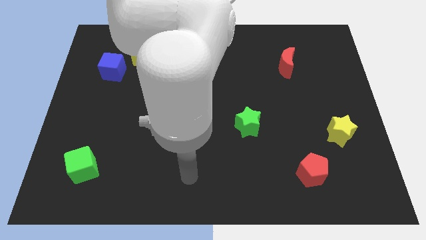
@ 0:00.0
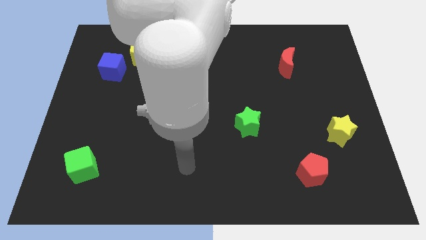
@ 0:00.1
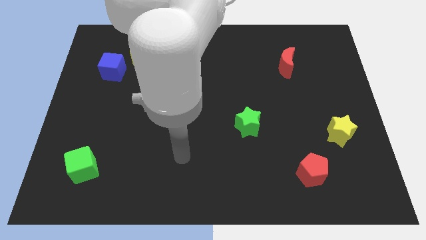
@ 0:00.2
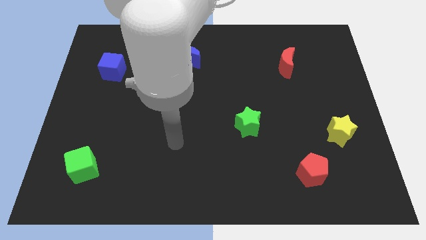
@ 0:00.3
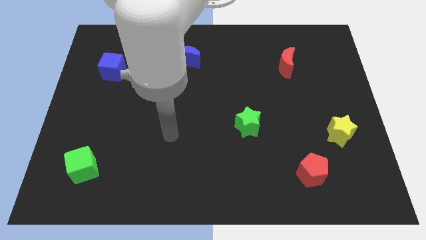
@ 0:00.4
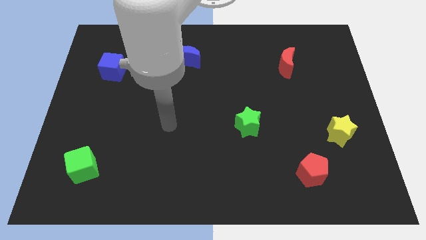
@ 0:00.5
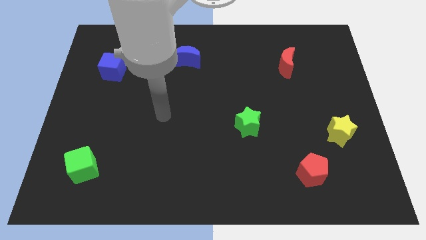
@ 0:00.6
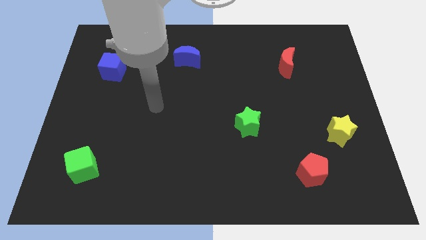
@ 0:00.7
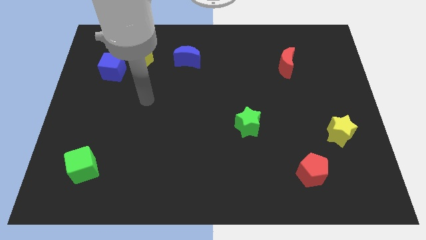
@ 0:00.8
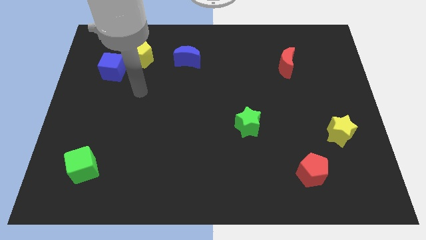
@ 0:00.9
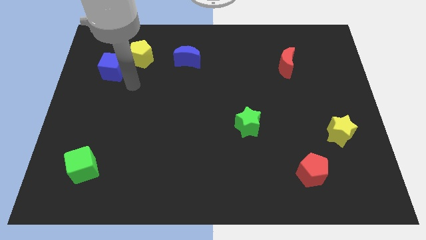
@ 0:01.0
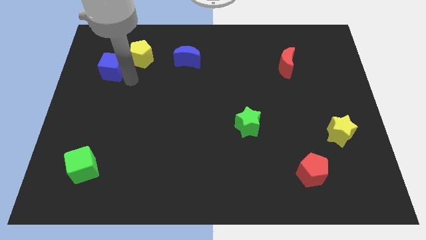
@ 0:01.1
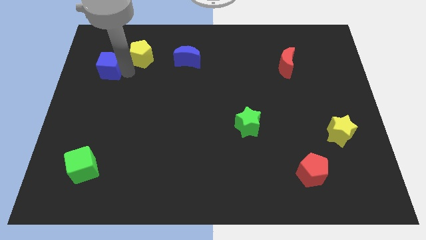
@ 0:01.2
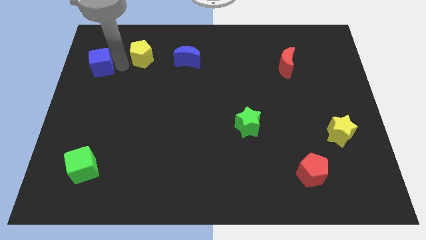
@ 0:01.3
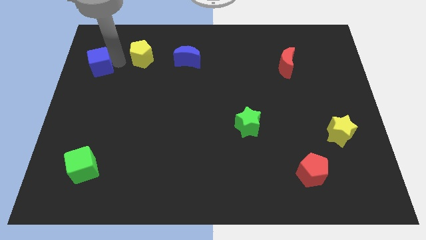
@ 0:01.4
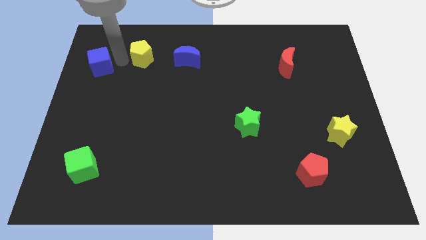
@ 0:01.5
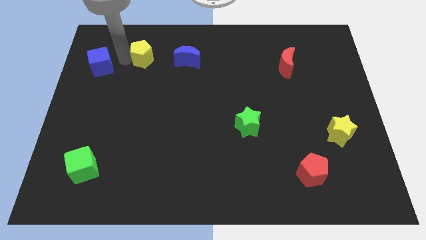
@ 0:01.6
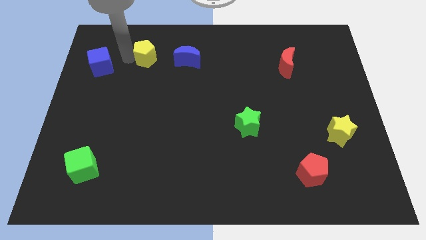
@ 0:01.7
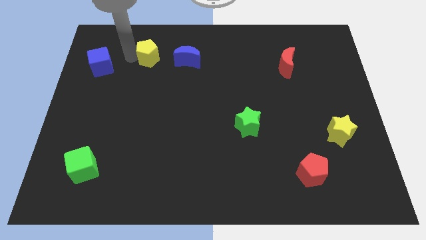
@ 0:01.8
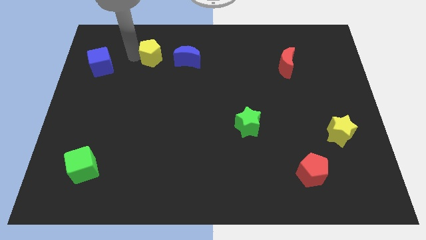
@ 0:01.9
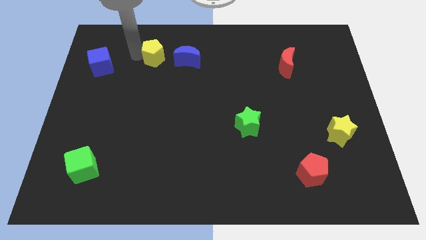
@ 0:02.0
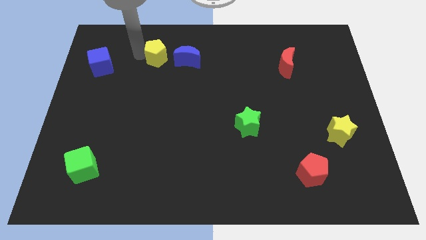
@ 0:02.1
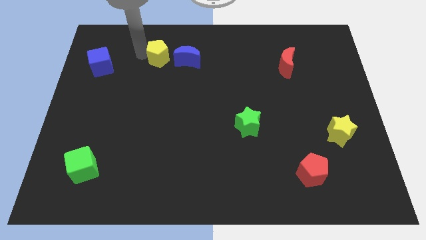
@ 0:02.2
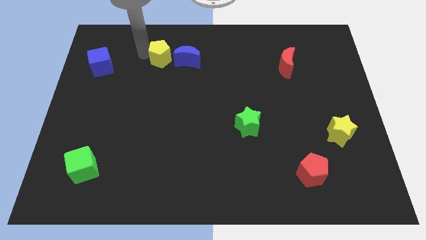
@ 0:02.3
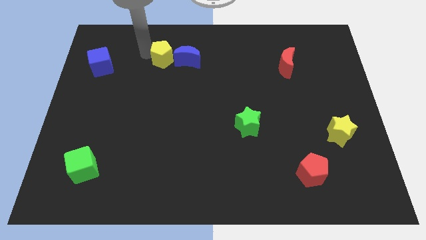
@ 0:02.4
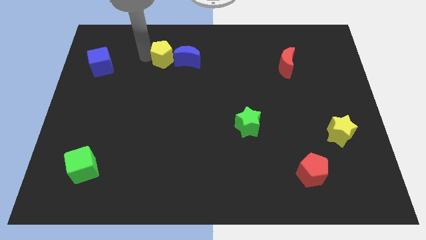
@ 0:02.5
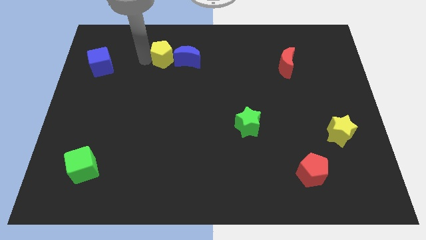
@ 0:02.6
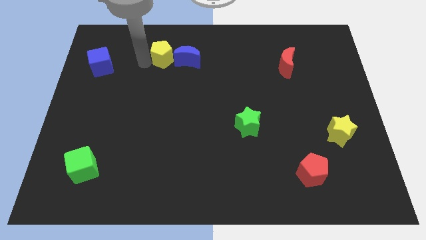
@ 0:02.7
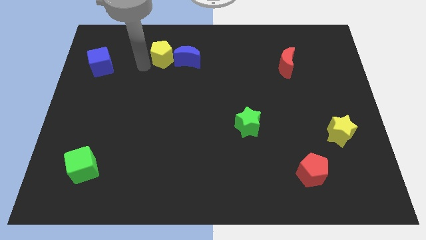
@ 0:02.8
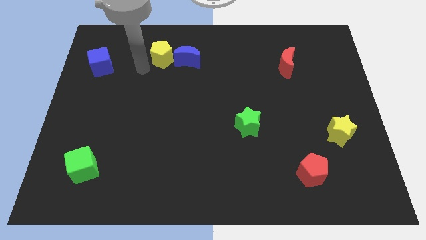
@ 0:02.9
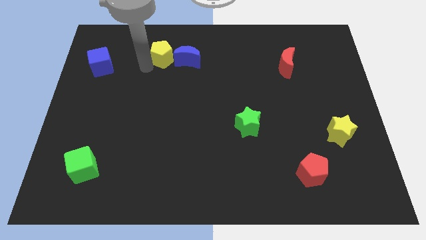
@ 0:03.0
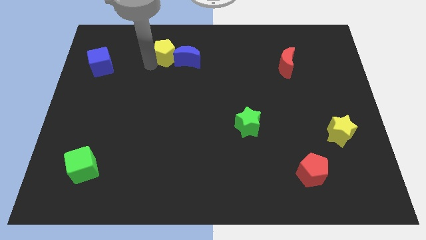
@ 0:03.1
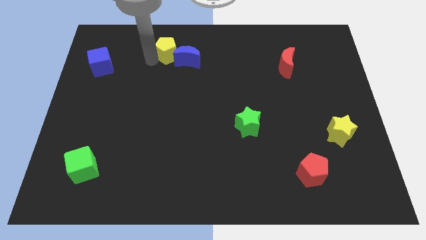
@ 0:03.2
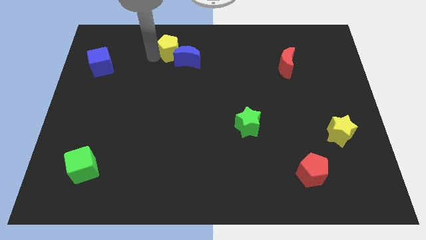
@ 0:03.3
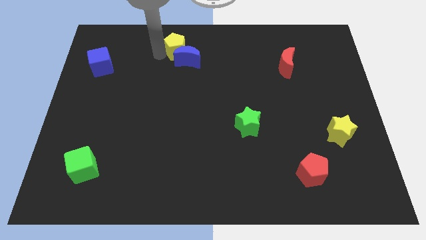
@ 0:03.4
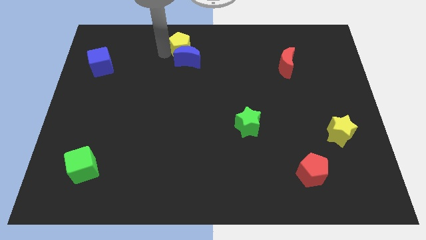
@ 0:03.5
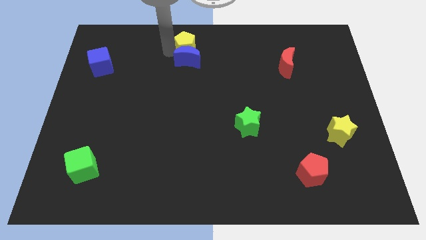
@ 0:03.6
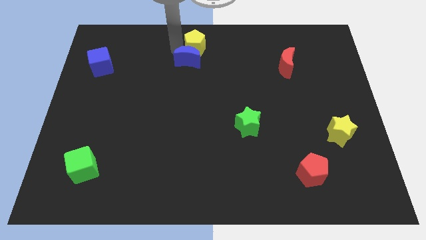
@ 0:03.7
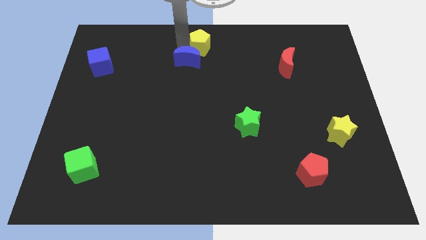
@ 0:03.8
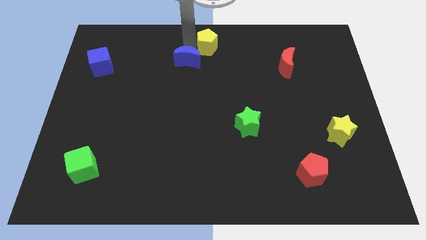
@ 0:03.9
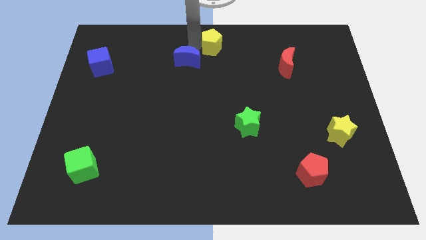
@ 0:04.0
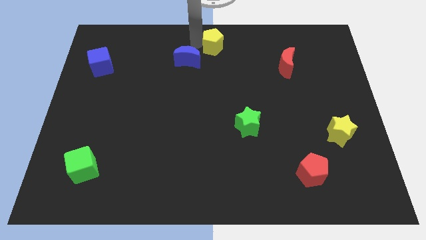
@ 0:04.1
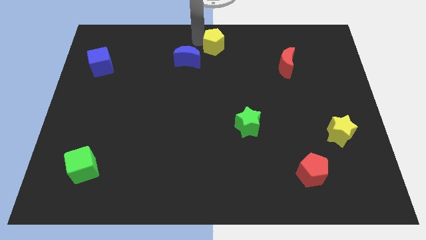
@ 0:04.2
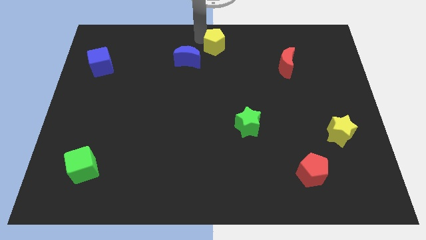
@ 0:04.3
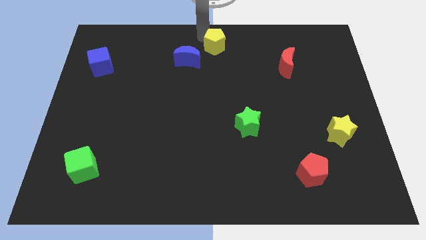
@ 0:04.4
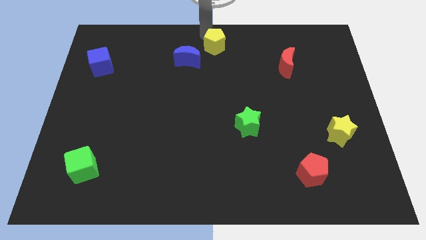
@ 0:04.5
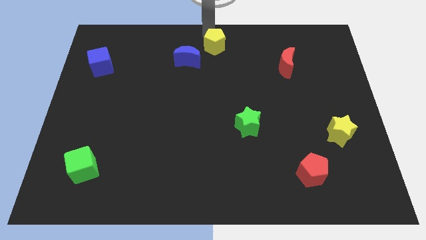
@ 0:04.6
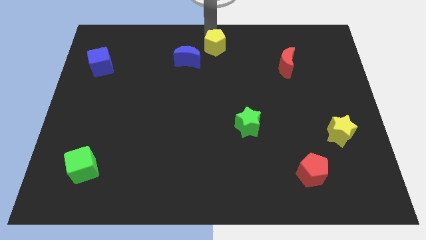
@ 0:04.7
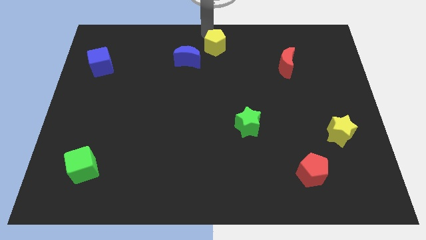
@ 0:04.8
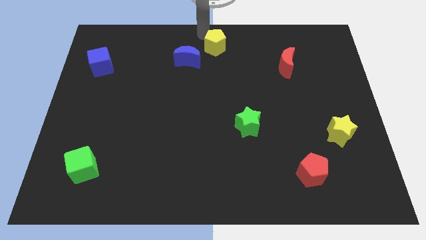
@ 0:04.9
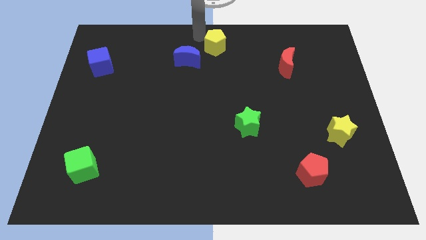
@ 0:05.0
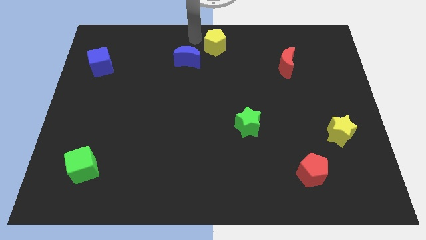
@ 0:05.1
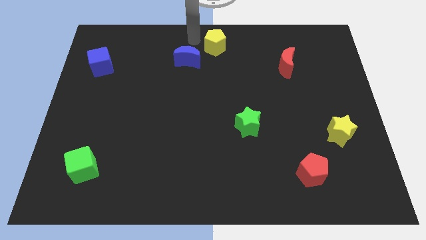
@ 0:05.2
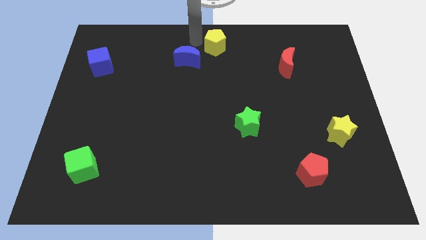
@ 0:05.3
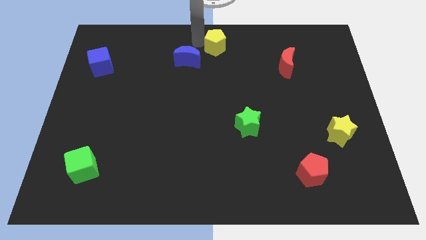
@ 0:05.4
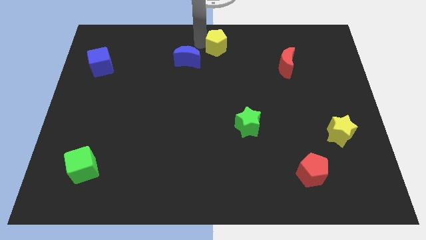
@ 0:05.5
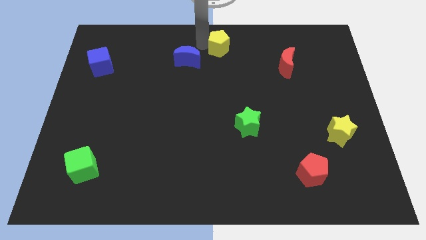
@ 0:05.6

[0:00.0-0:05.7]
slide the yellow pentagon right

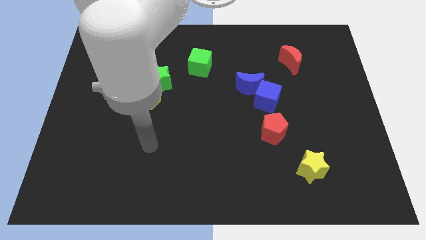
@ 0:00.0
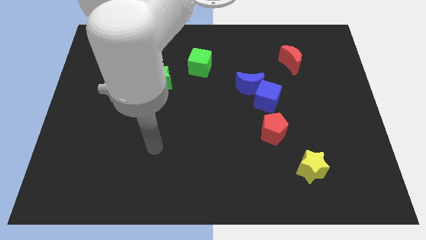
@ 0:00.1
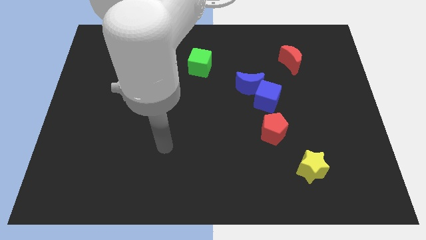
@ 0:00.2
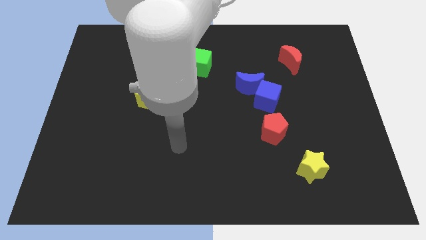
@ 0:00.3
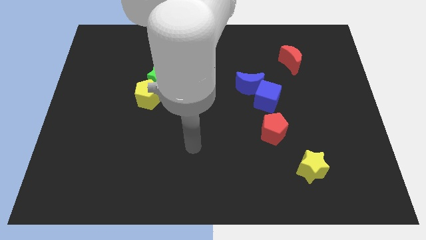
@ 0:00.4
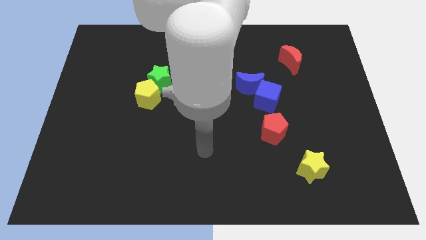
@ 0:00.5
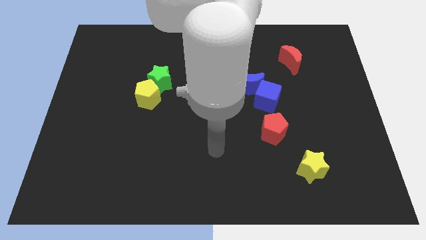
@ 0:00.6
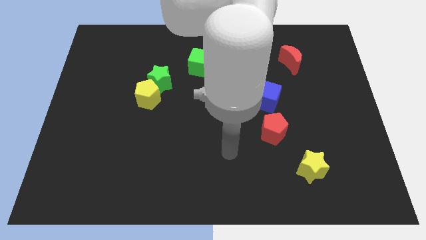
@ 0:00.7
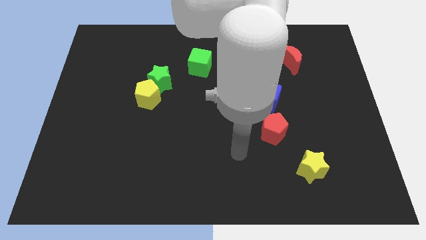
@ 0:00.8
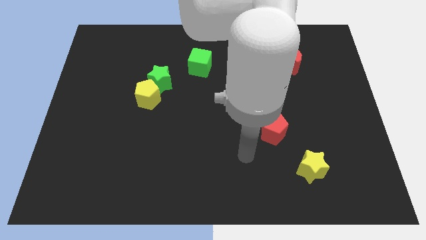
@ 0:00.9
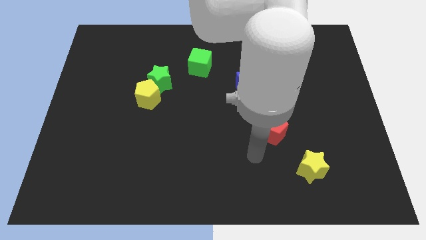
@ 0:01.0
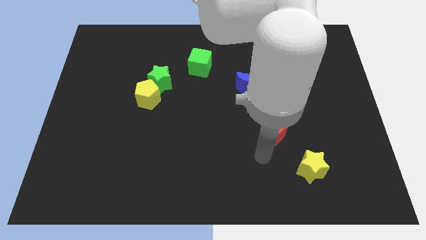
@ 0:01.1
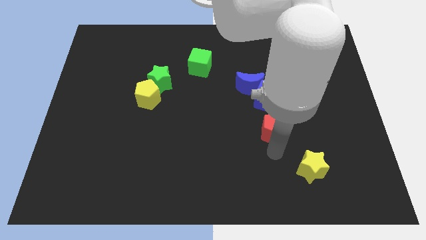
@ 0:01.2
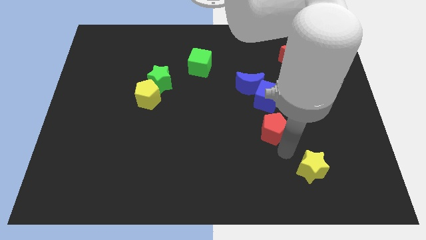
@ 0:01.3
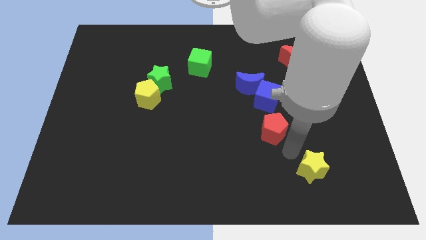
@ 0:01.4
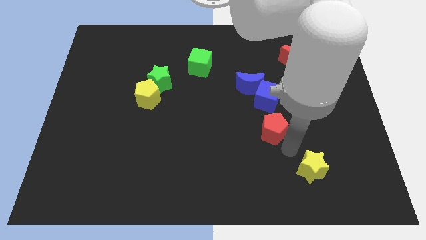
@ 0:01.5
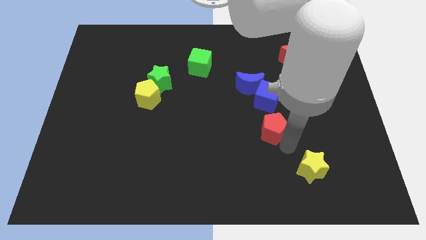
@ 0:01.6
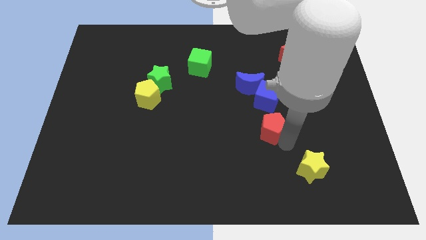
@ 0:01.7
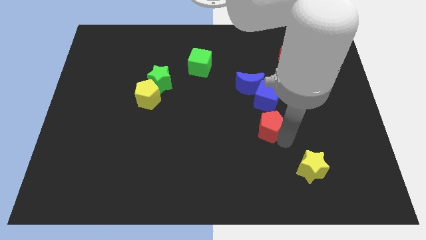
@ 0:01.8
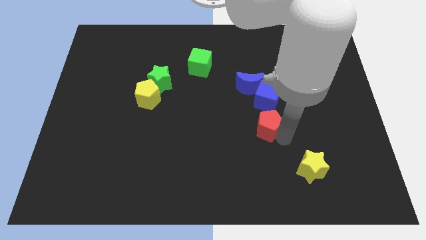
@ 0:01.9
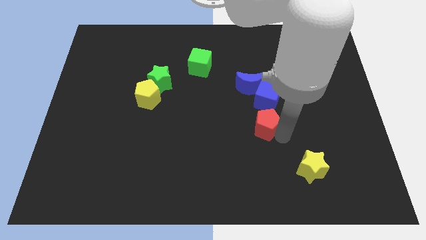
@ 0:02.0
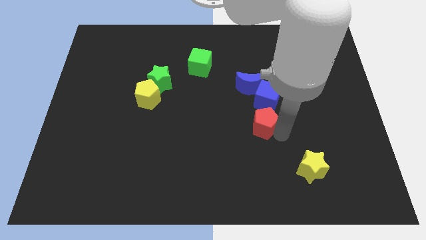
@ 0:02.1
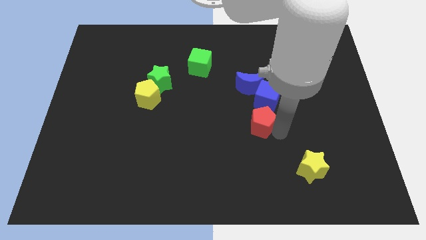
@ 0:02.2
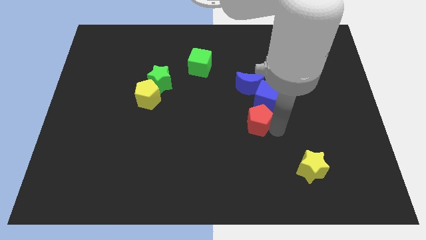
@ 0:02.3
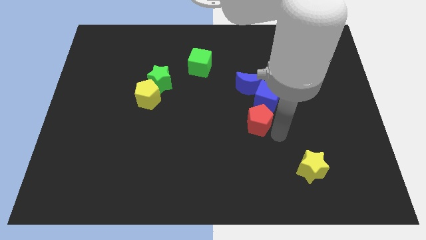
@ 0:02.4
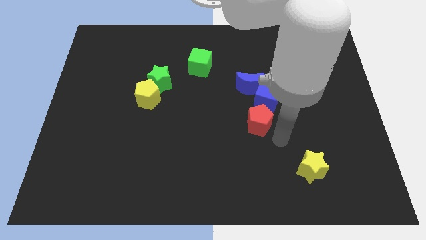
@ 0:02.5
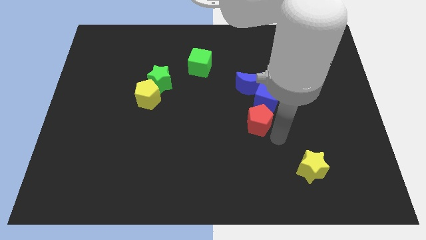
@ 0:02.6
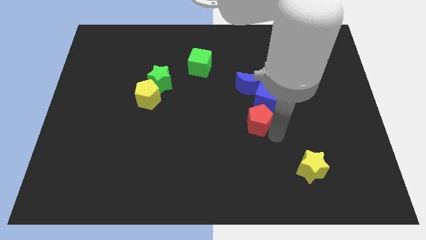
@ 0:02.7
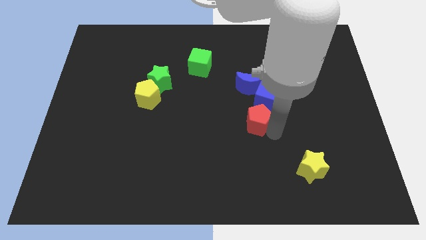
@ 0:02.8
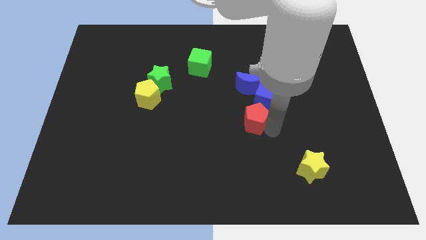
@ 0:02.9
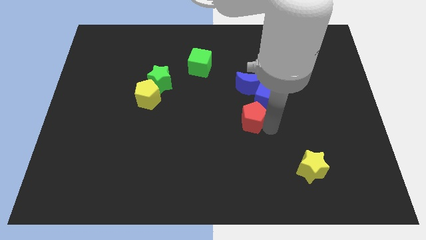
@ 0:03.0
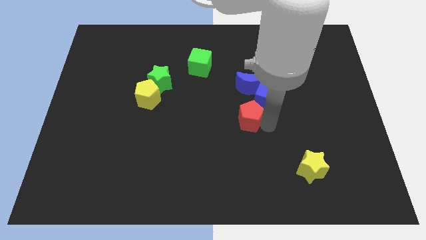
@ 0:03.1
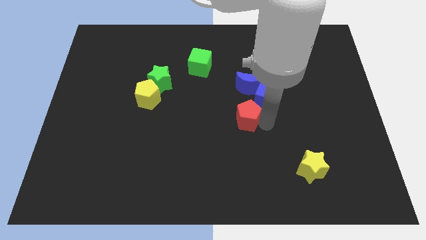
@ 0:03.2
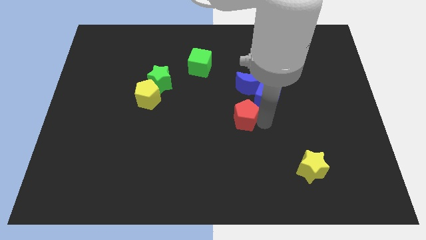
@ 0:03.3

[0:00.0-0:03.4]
push the red pentagon a bit upwards and left diagonally
